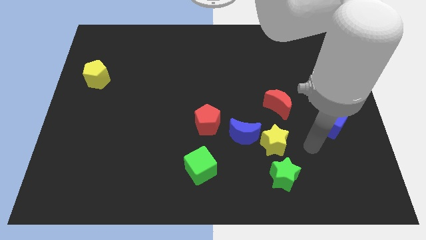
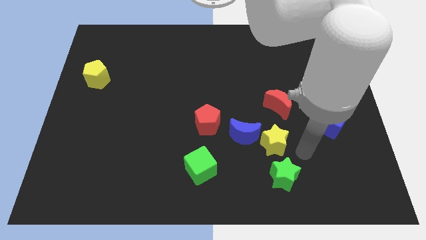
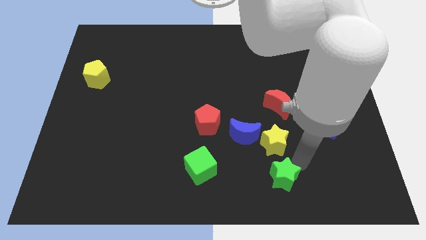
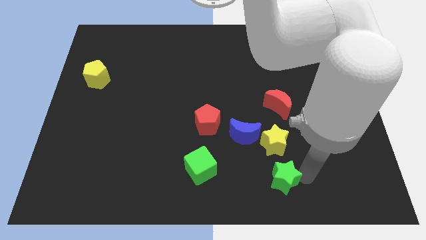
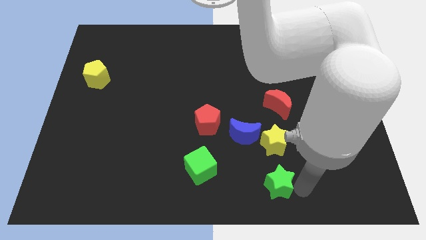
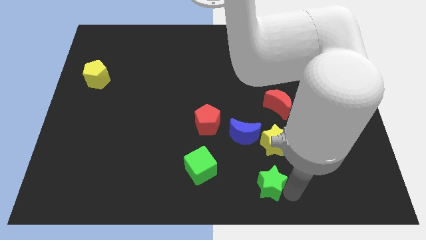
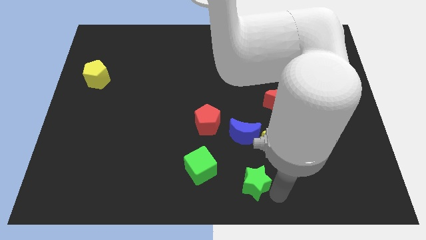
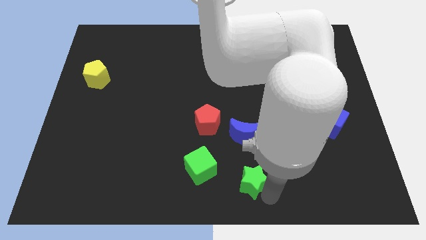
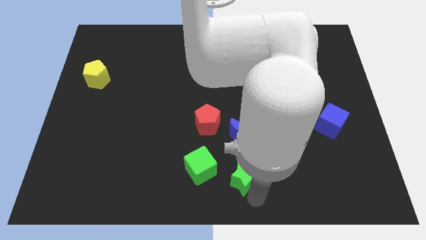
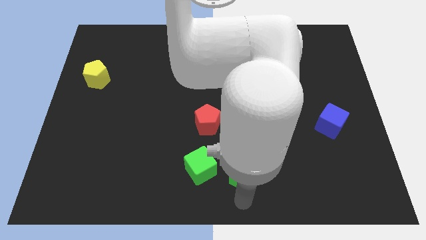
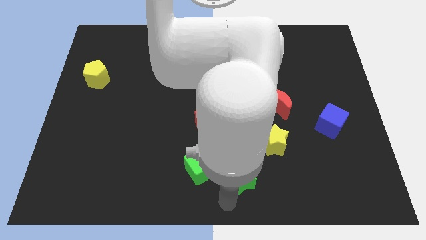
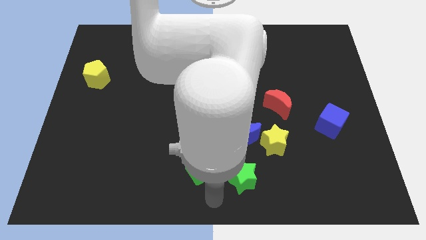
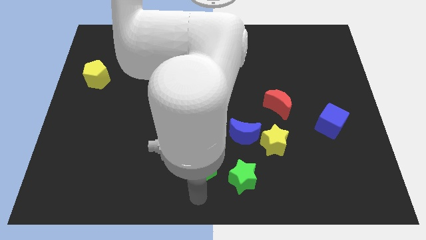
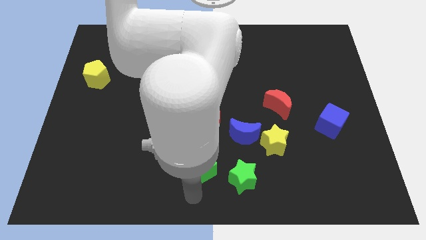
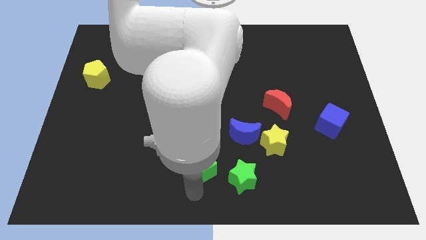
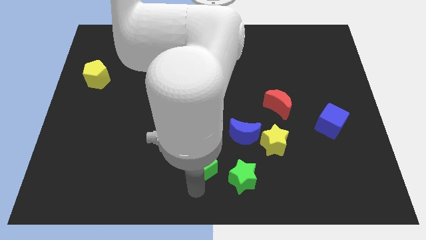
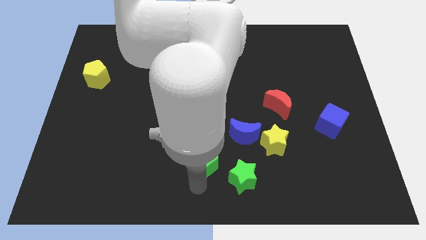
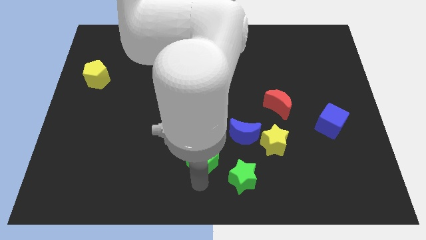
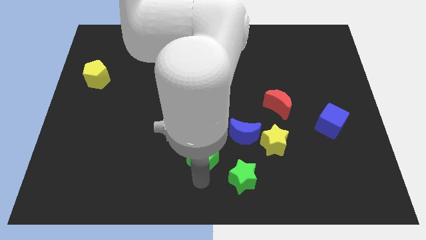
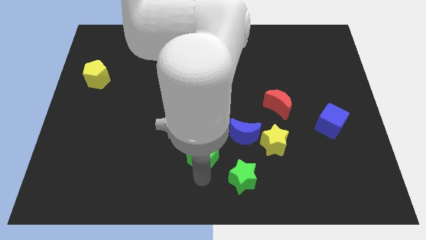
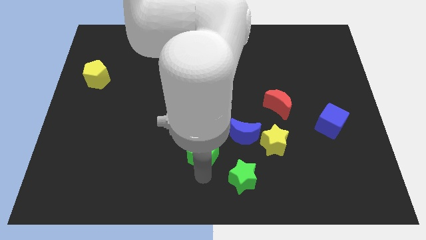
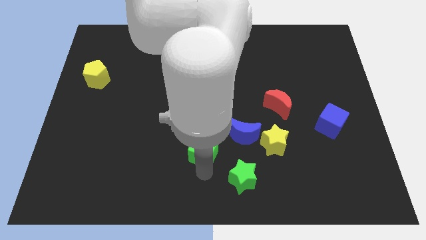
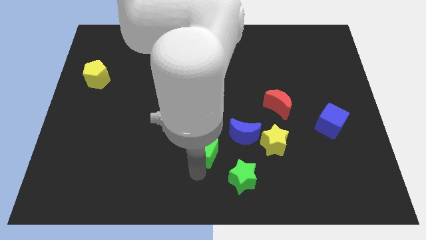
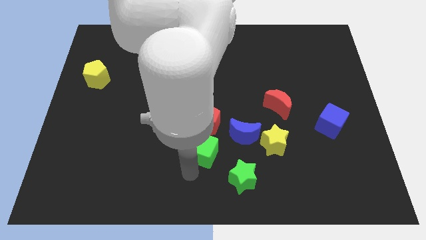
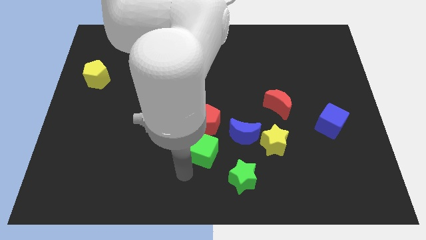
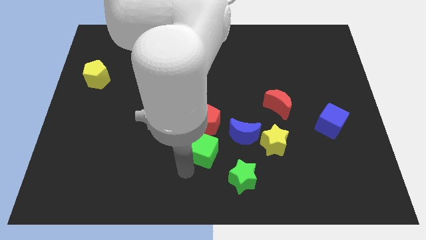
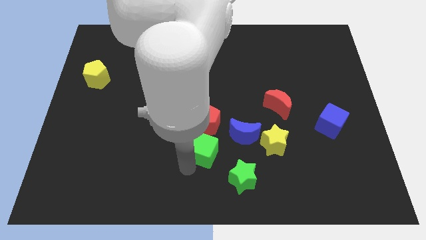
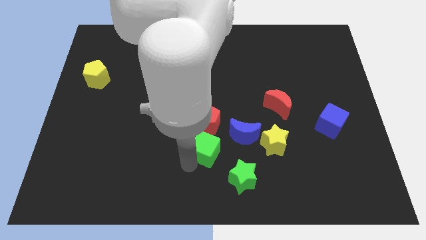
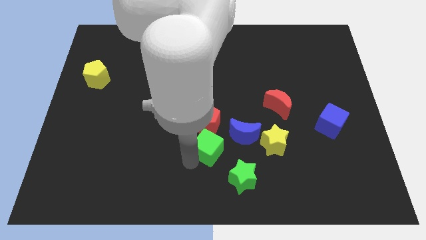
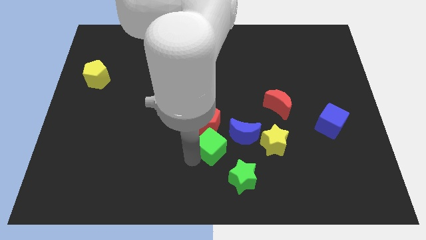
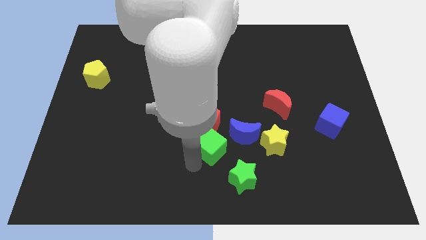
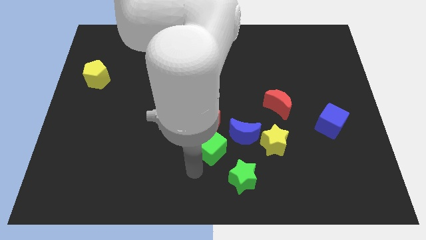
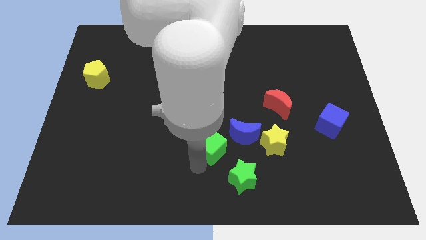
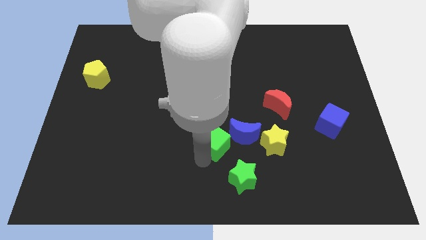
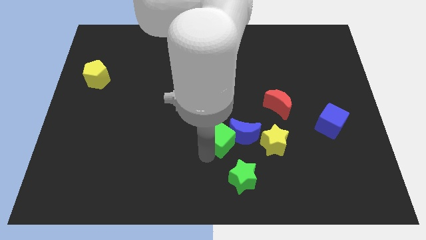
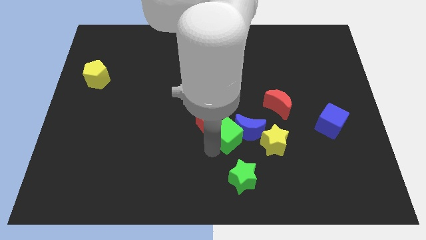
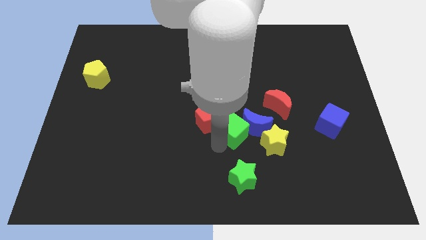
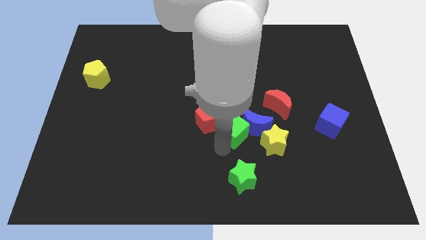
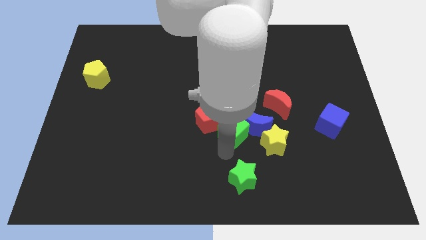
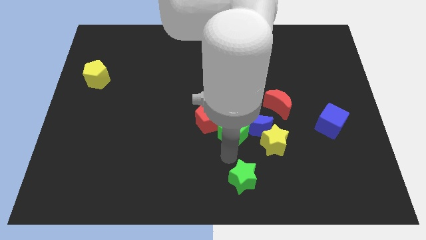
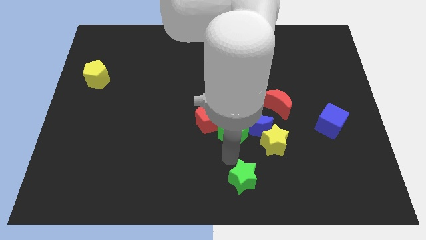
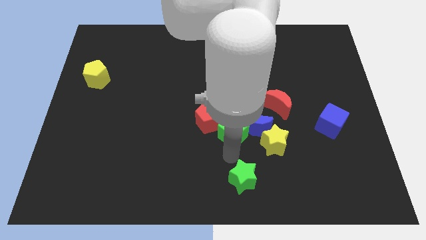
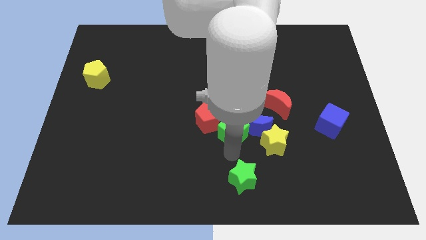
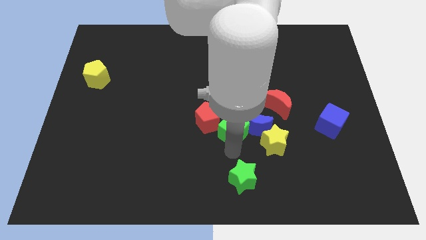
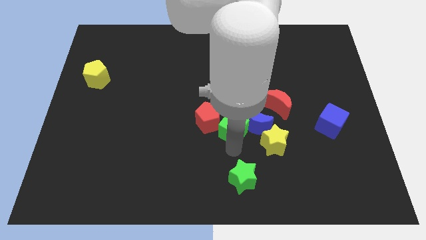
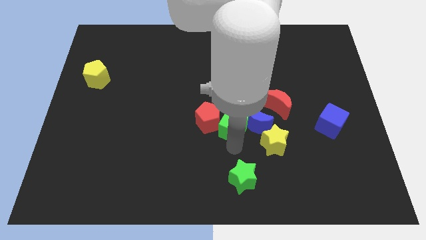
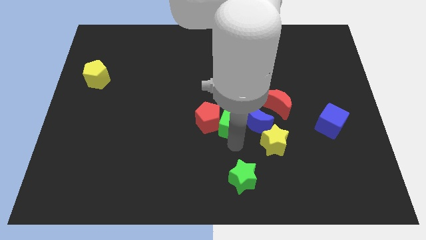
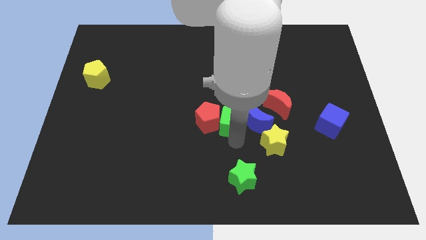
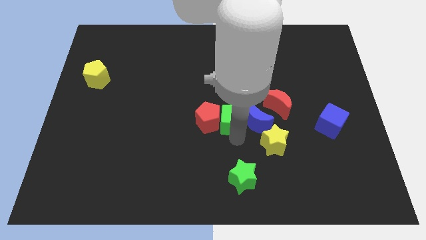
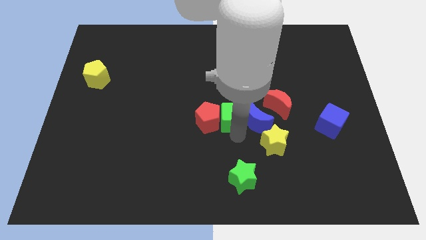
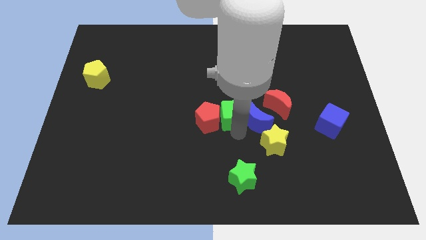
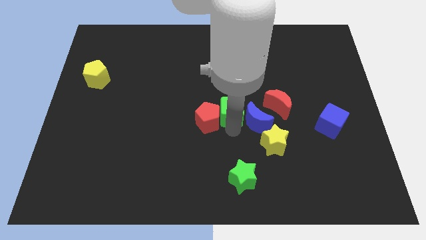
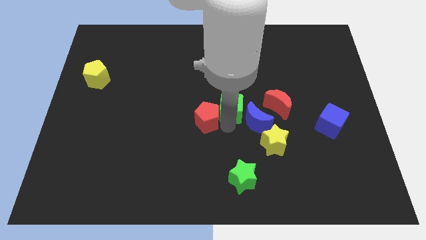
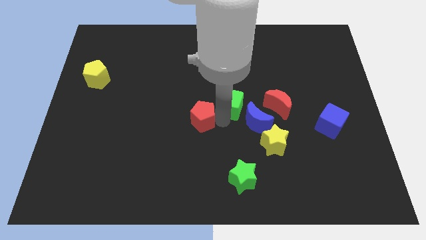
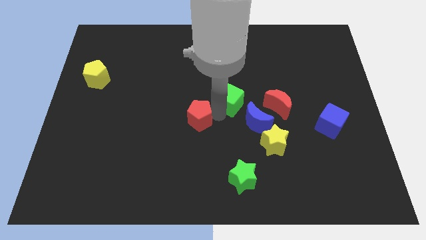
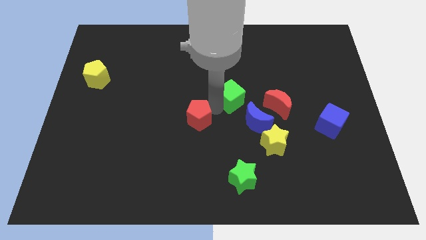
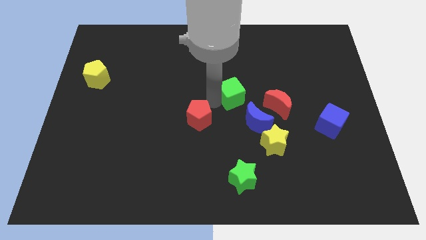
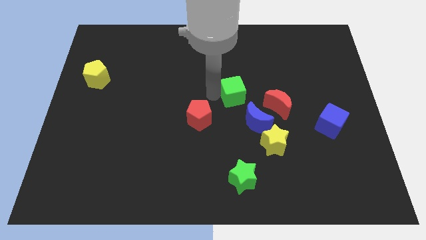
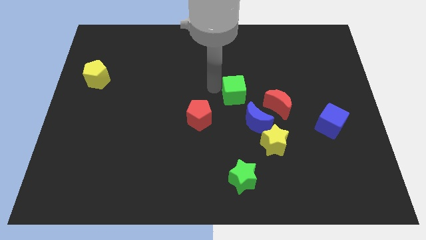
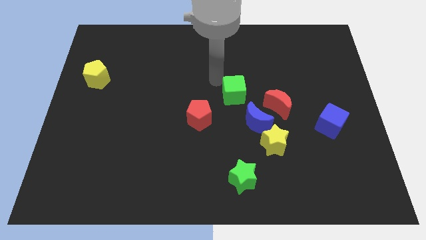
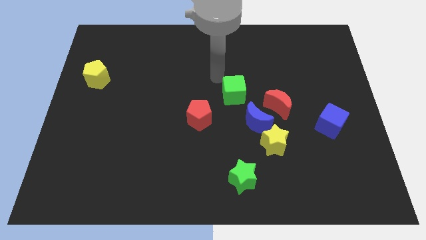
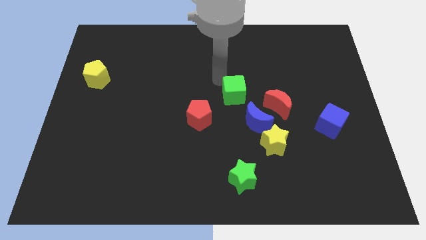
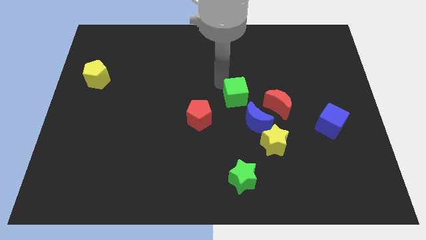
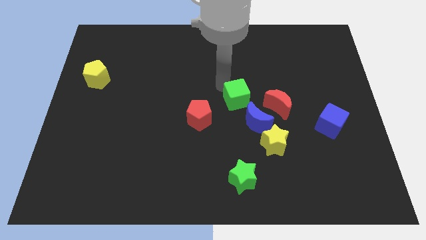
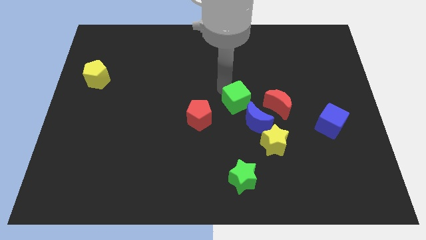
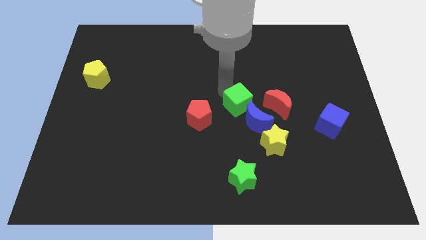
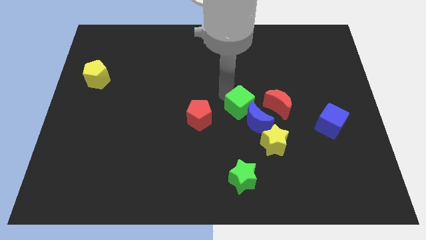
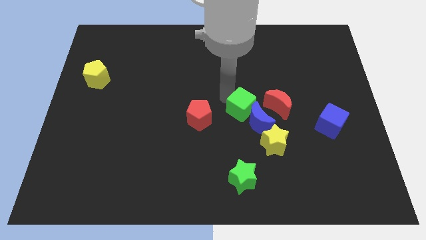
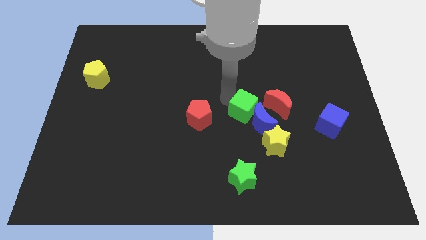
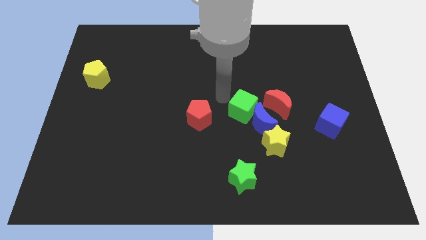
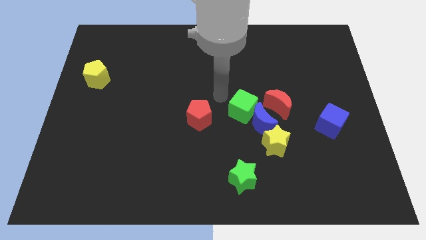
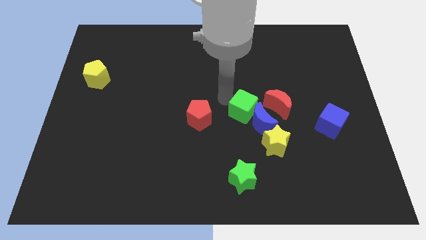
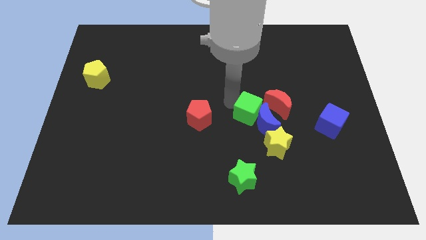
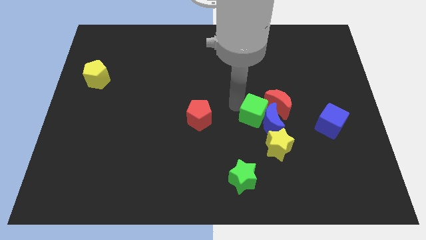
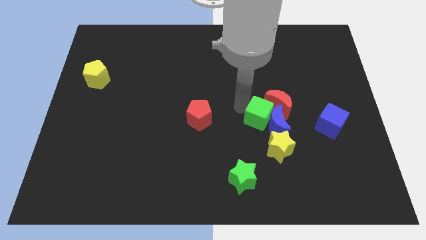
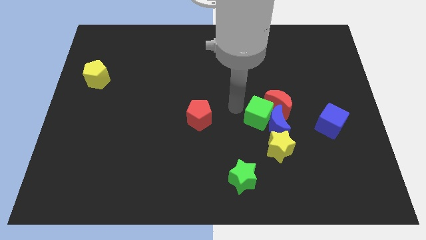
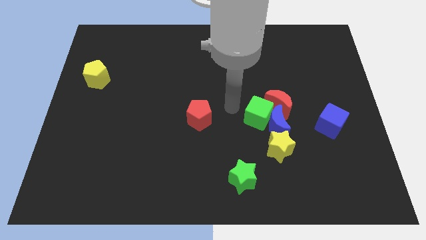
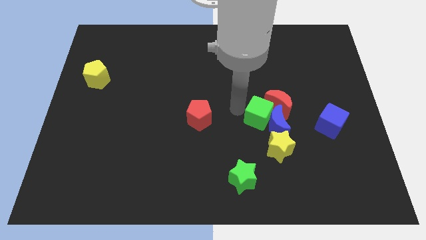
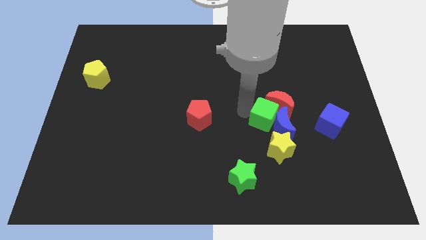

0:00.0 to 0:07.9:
put the green cube to the left side of the blue cube
